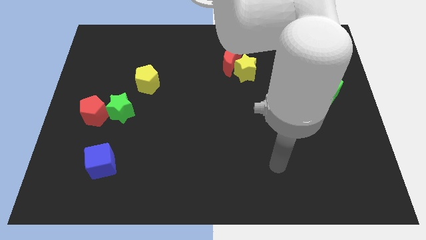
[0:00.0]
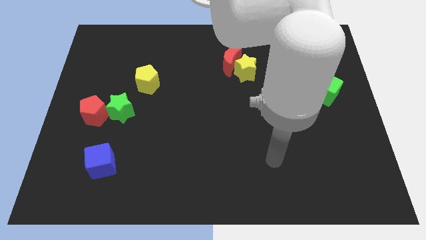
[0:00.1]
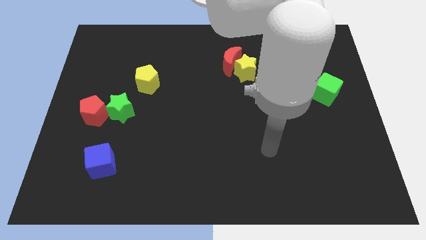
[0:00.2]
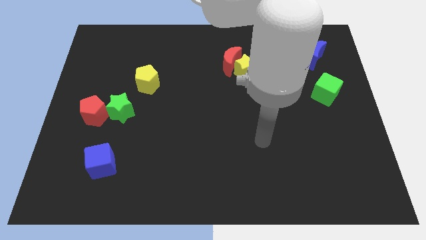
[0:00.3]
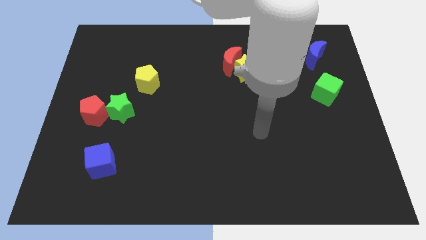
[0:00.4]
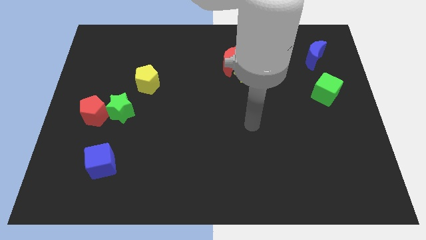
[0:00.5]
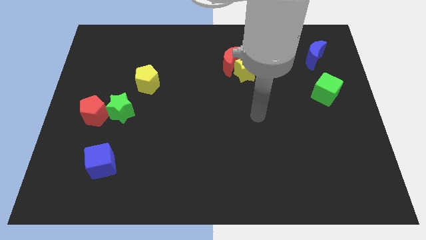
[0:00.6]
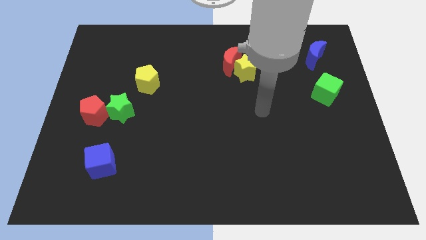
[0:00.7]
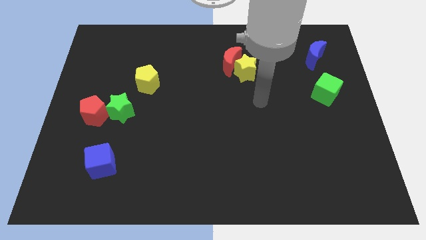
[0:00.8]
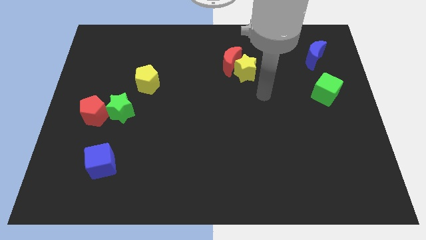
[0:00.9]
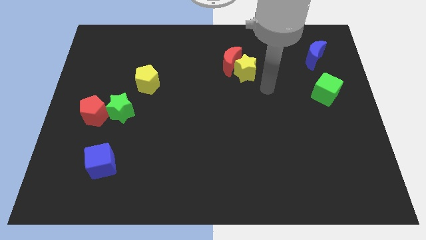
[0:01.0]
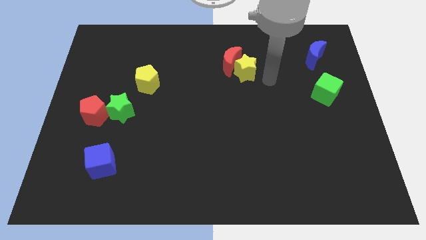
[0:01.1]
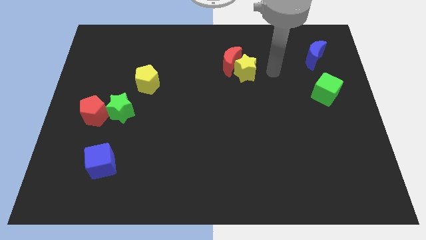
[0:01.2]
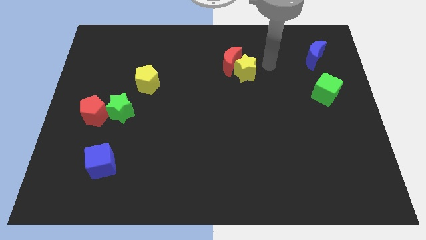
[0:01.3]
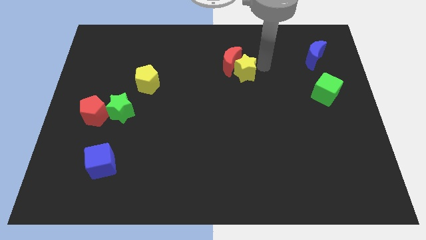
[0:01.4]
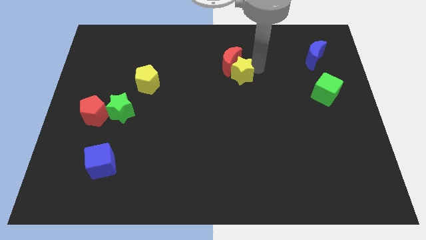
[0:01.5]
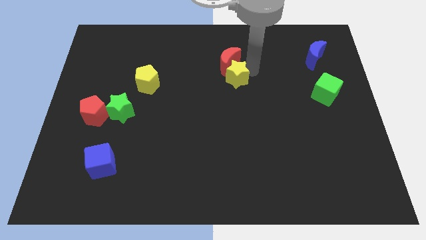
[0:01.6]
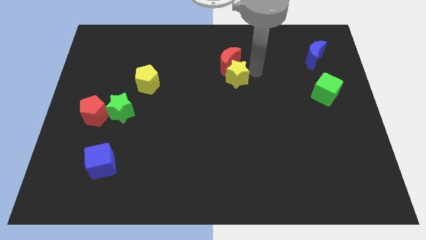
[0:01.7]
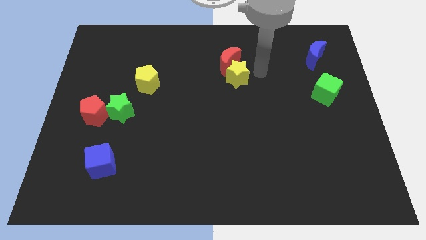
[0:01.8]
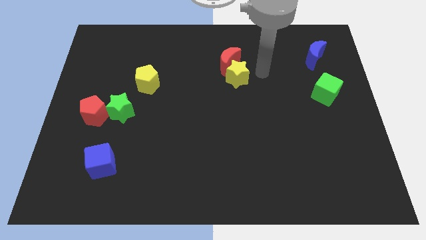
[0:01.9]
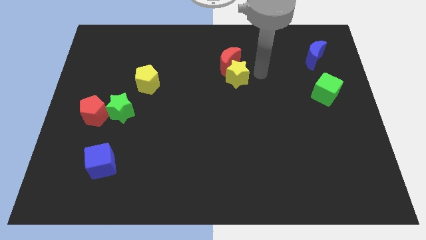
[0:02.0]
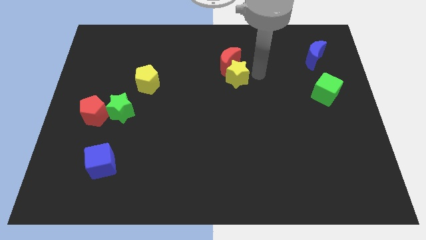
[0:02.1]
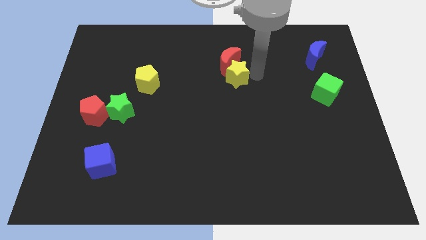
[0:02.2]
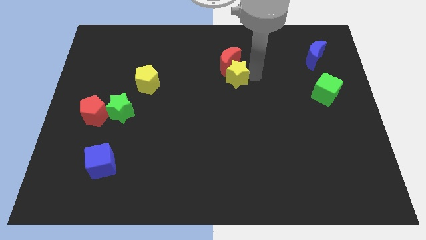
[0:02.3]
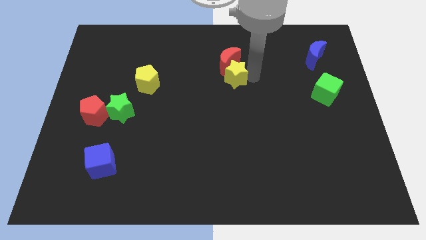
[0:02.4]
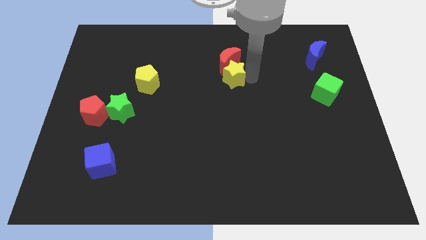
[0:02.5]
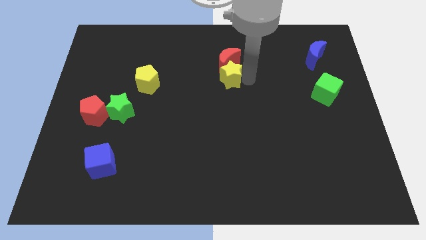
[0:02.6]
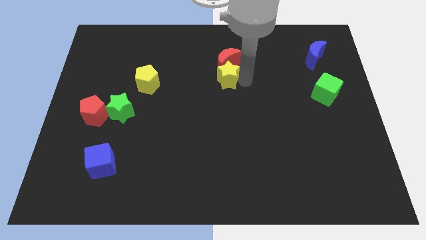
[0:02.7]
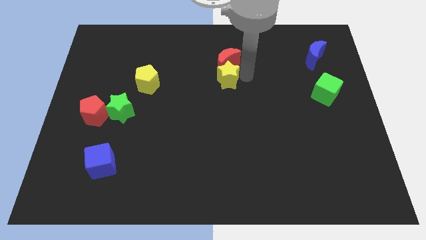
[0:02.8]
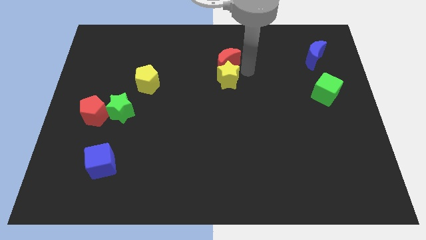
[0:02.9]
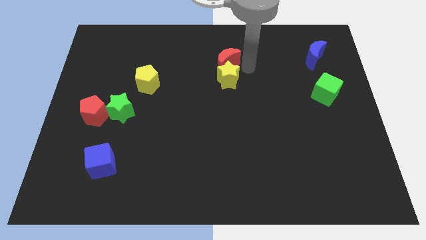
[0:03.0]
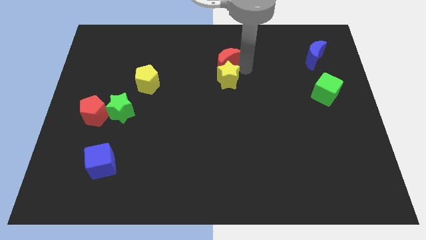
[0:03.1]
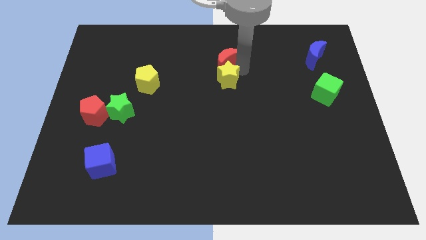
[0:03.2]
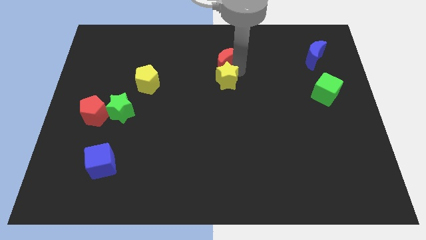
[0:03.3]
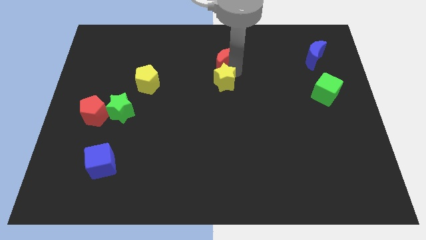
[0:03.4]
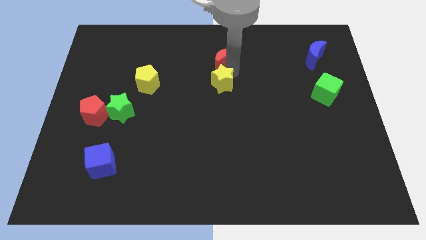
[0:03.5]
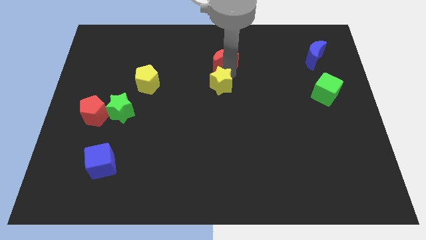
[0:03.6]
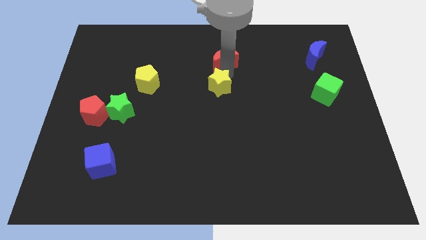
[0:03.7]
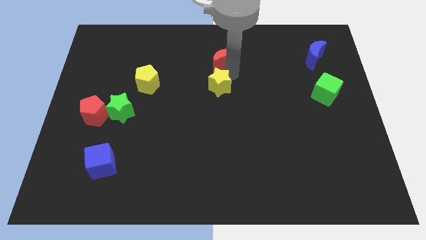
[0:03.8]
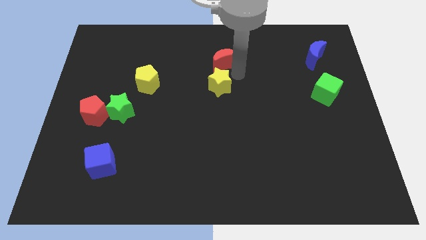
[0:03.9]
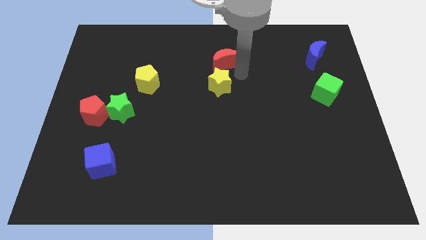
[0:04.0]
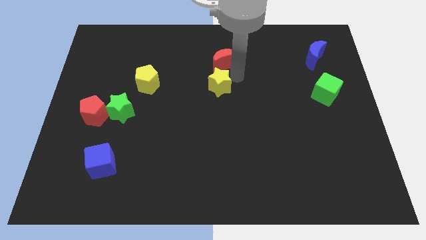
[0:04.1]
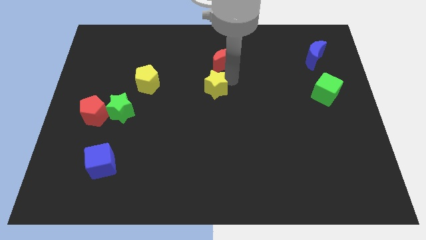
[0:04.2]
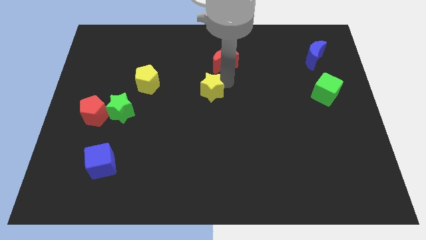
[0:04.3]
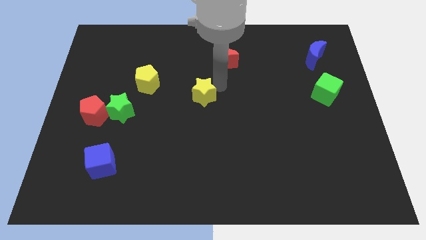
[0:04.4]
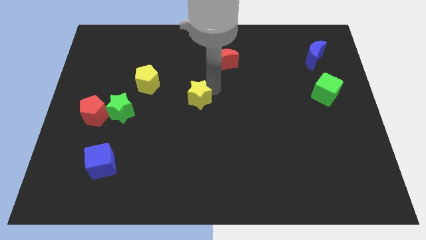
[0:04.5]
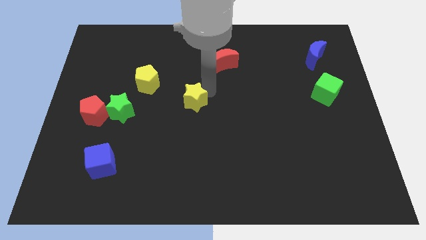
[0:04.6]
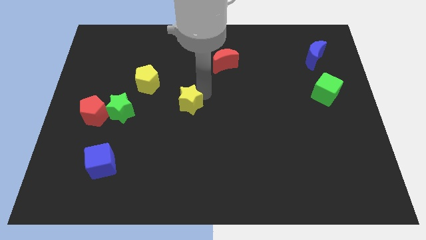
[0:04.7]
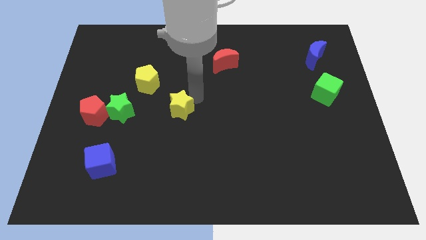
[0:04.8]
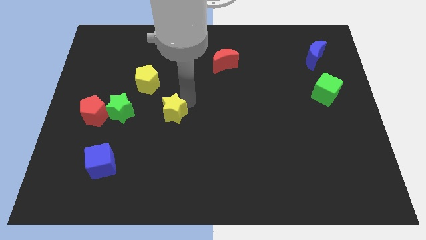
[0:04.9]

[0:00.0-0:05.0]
slide the yellow star downwards and to the left diagonally

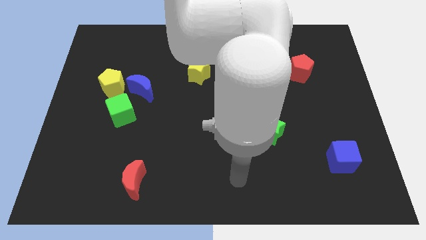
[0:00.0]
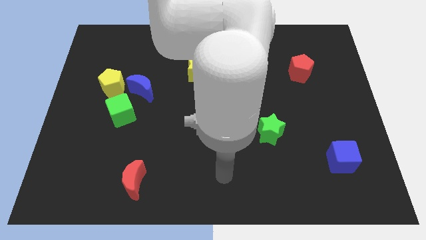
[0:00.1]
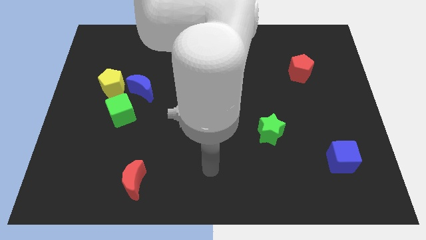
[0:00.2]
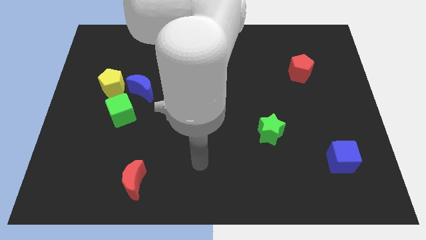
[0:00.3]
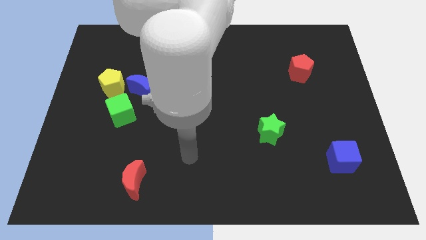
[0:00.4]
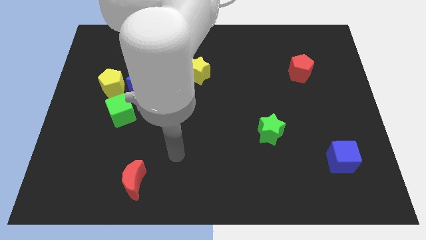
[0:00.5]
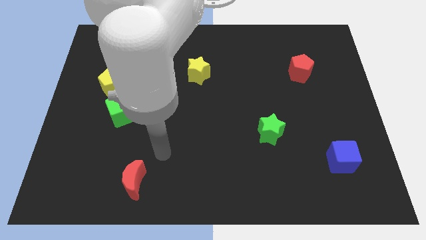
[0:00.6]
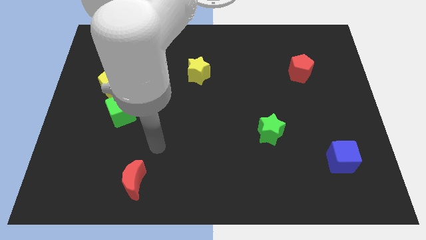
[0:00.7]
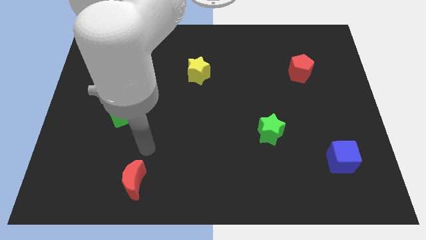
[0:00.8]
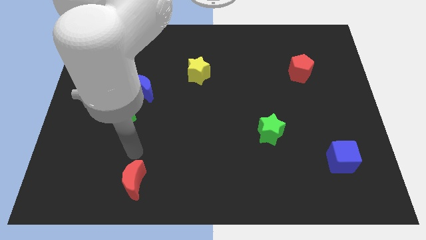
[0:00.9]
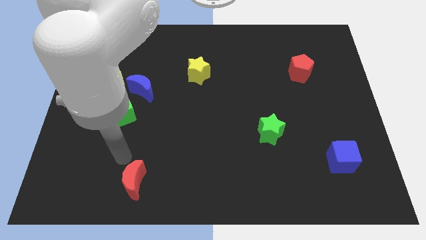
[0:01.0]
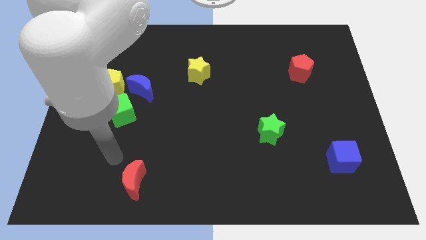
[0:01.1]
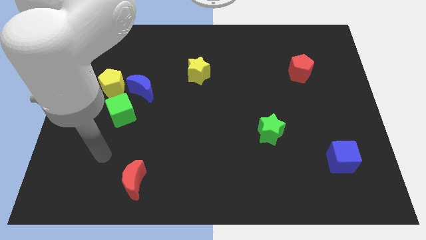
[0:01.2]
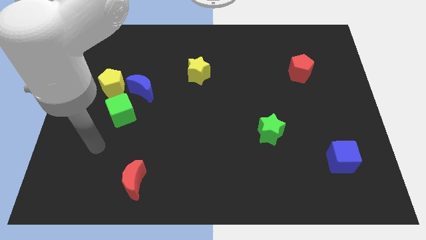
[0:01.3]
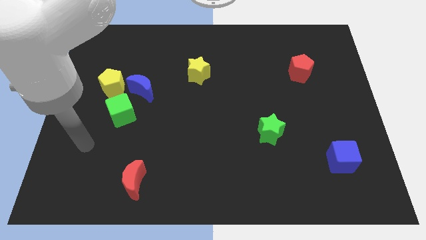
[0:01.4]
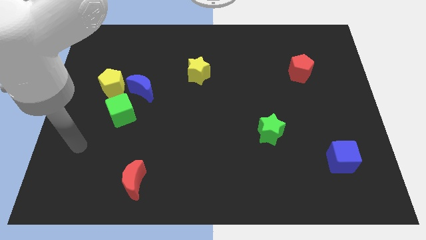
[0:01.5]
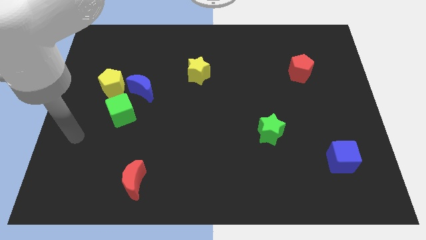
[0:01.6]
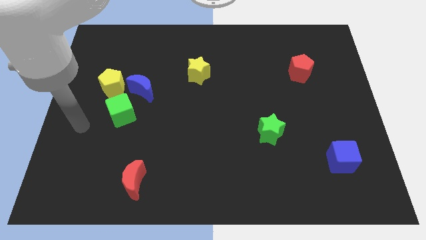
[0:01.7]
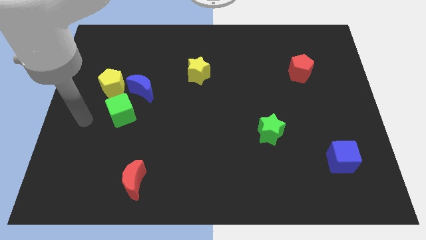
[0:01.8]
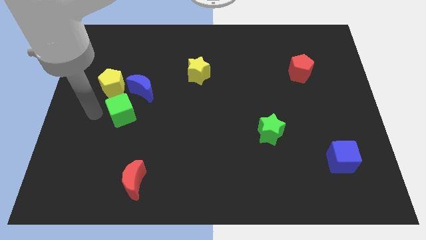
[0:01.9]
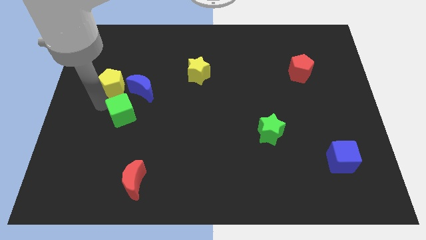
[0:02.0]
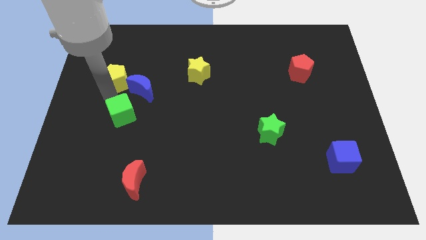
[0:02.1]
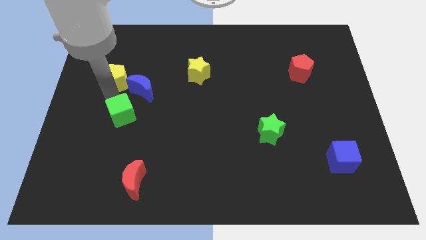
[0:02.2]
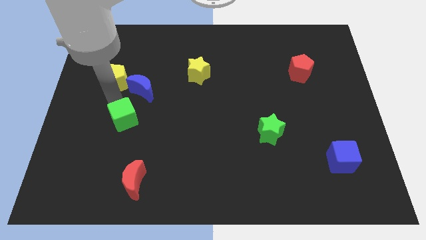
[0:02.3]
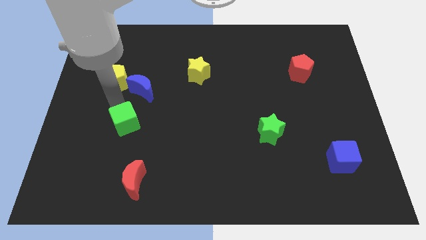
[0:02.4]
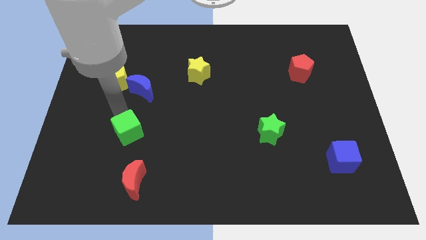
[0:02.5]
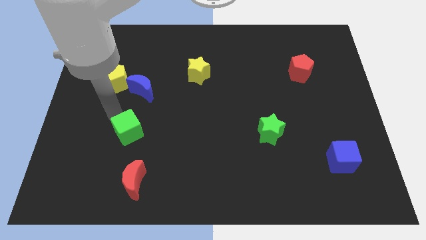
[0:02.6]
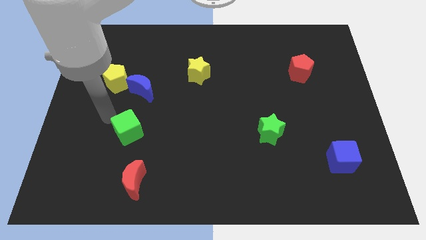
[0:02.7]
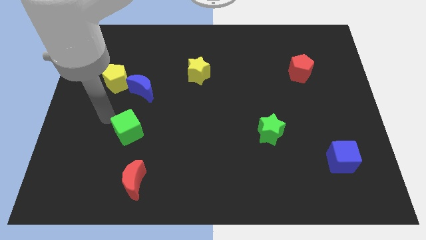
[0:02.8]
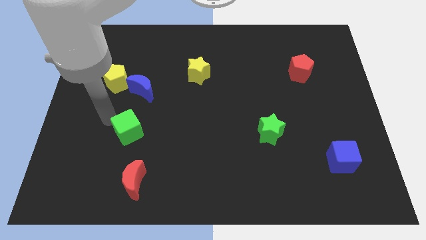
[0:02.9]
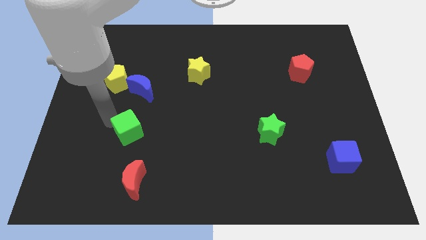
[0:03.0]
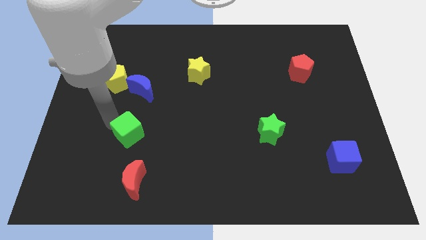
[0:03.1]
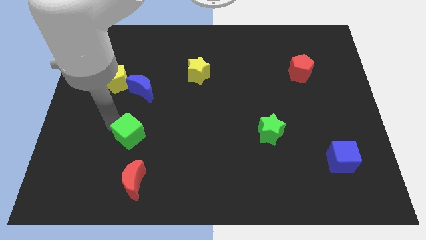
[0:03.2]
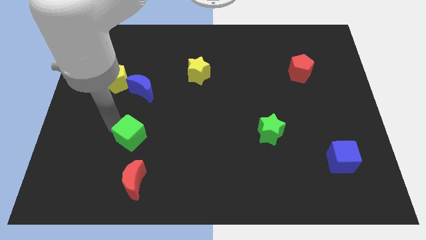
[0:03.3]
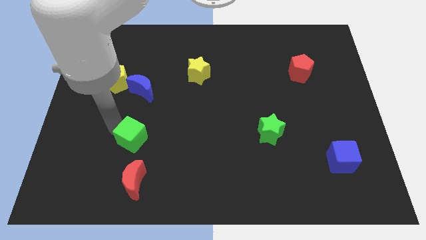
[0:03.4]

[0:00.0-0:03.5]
push the green cube a bit downwards and to the right diagonally
